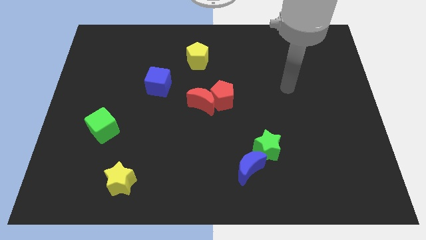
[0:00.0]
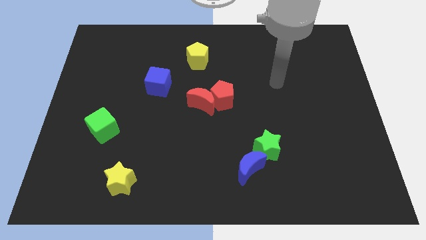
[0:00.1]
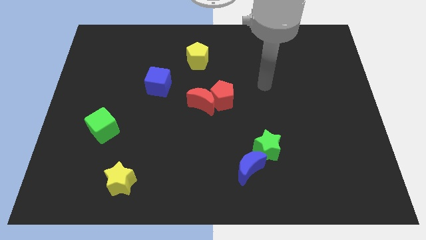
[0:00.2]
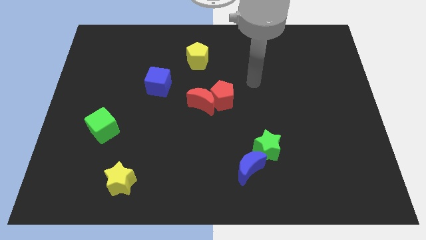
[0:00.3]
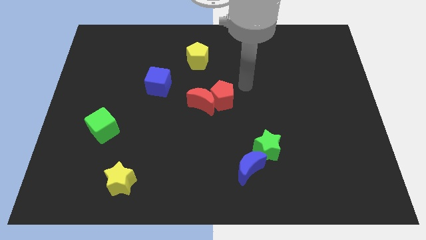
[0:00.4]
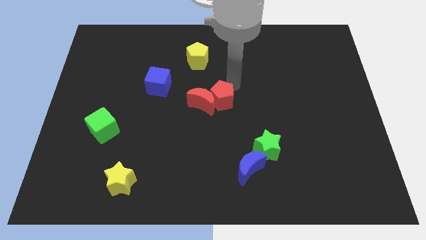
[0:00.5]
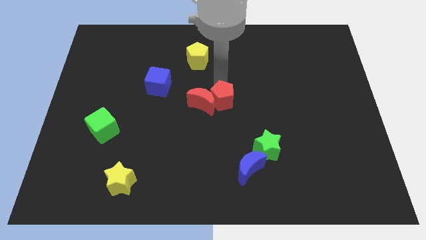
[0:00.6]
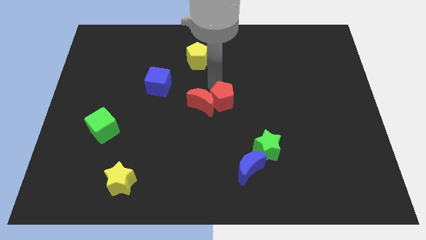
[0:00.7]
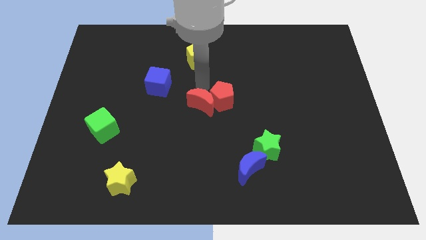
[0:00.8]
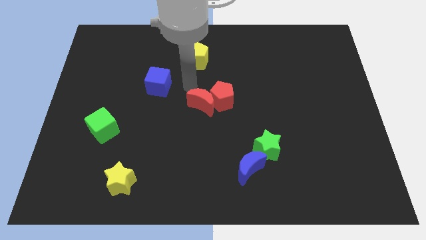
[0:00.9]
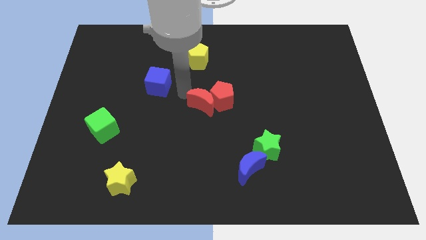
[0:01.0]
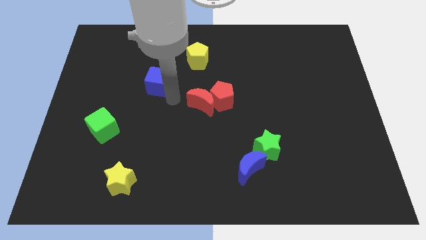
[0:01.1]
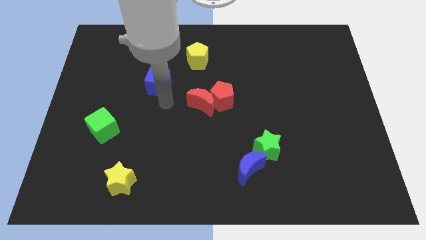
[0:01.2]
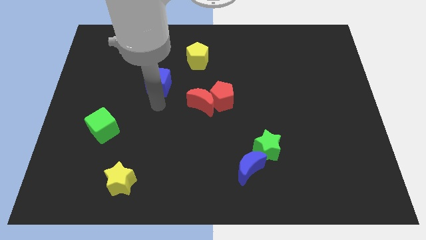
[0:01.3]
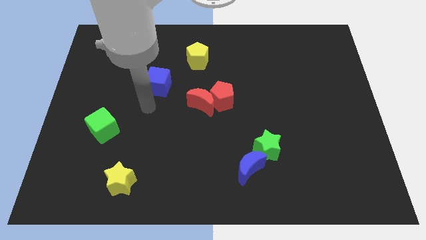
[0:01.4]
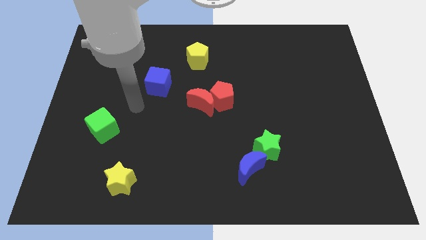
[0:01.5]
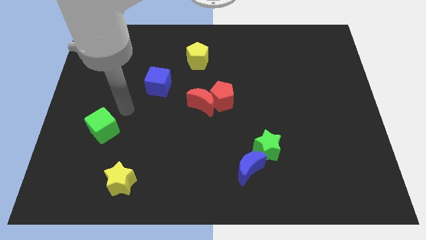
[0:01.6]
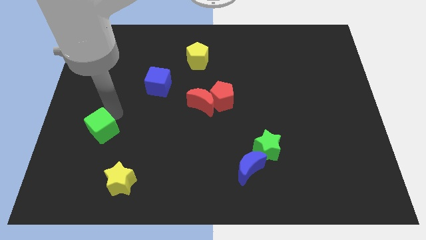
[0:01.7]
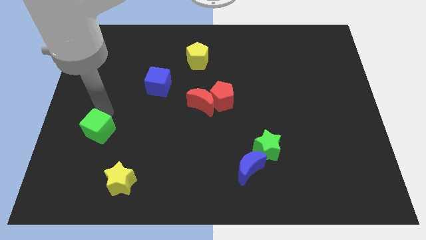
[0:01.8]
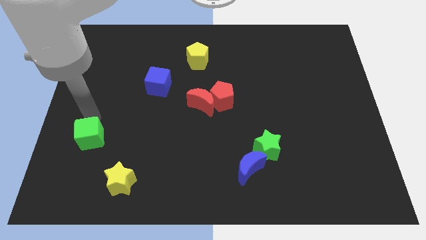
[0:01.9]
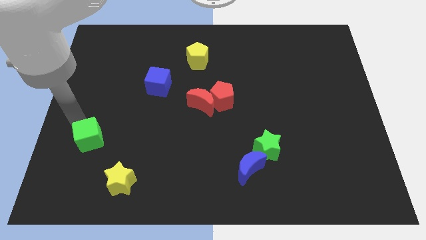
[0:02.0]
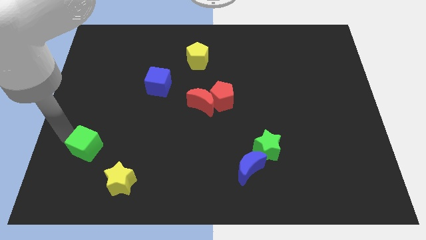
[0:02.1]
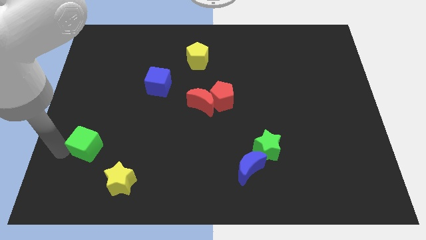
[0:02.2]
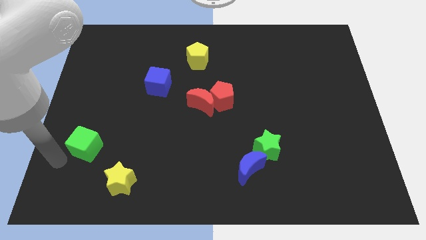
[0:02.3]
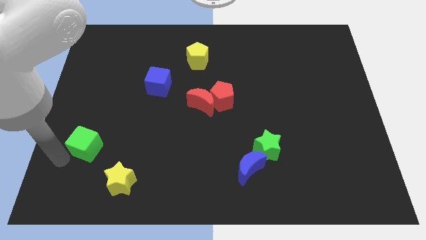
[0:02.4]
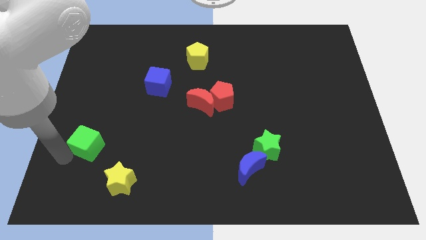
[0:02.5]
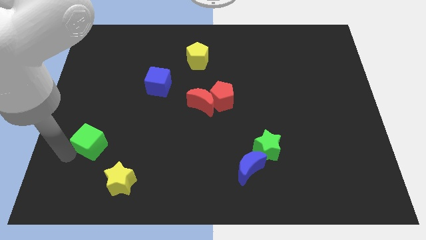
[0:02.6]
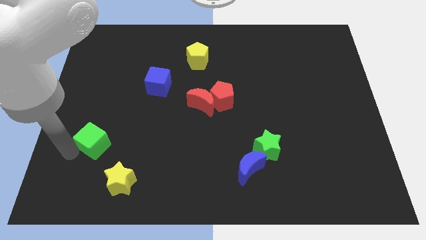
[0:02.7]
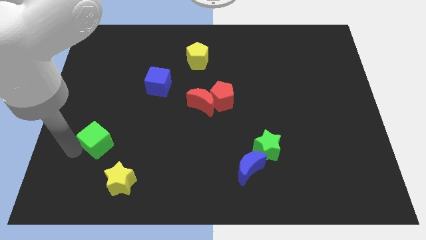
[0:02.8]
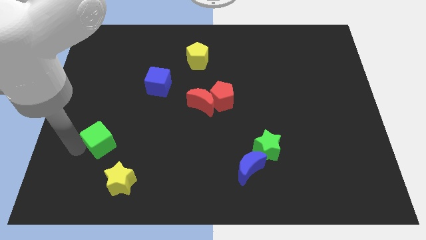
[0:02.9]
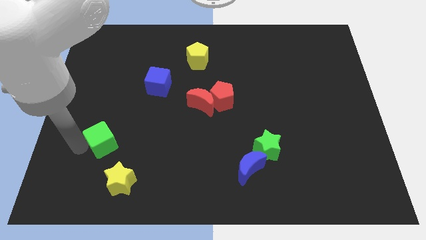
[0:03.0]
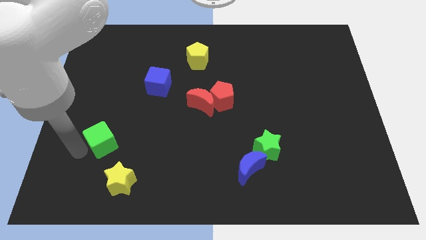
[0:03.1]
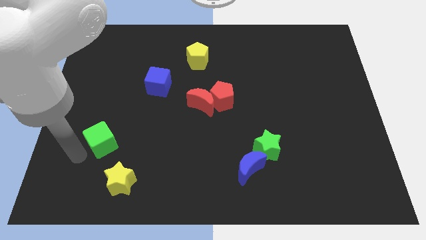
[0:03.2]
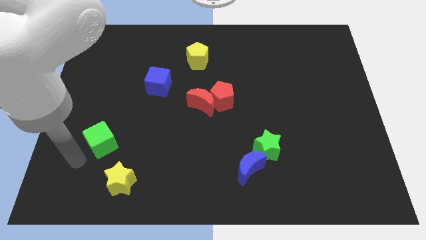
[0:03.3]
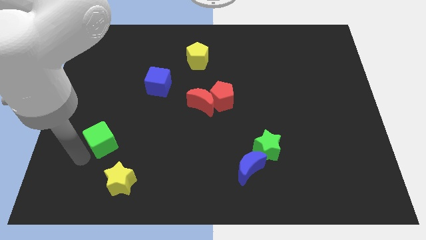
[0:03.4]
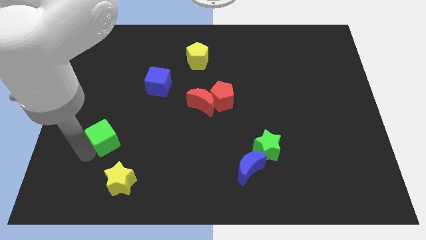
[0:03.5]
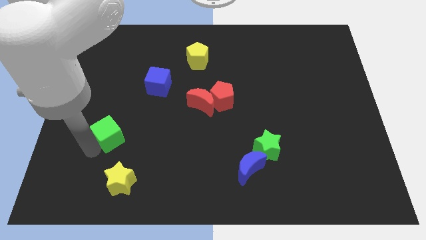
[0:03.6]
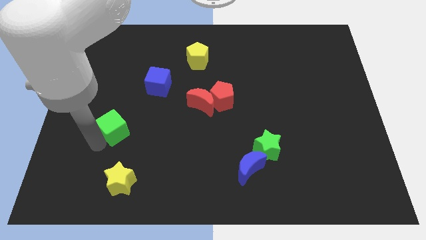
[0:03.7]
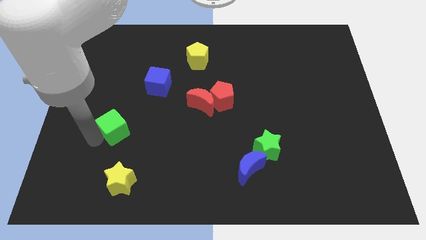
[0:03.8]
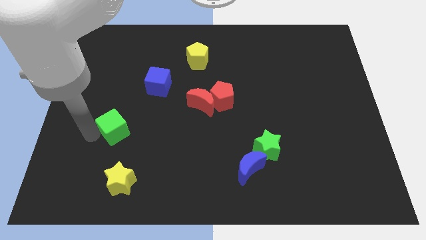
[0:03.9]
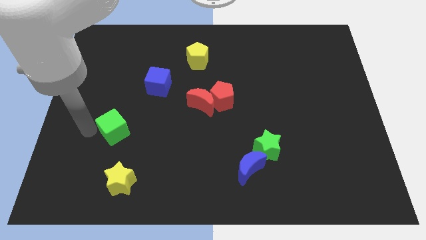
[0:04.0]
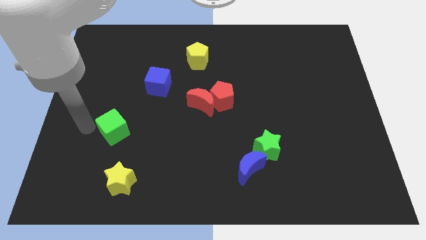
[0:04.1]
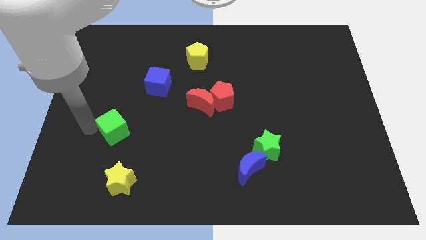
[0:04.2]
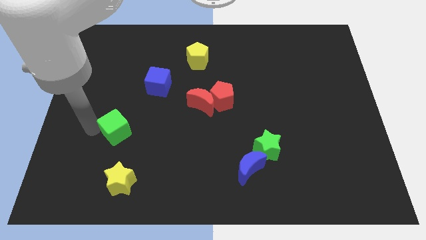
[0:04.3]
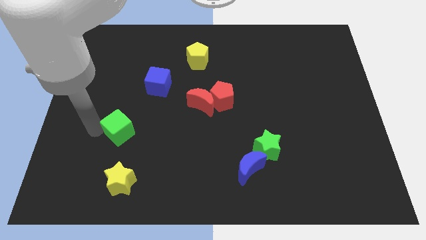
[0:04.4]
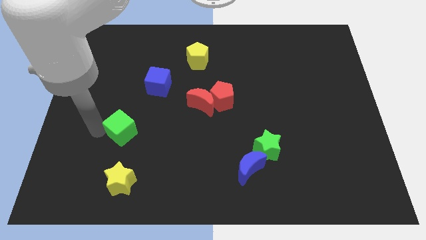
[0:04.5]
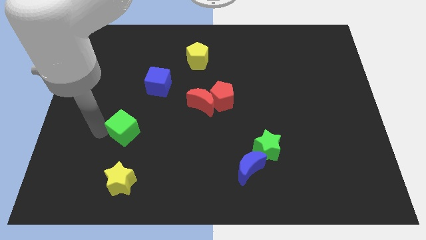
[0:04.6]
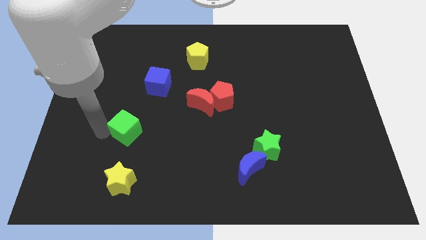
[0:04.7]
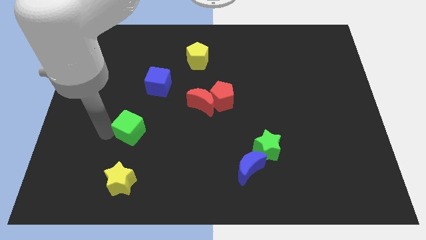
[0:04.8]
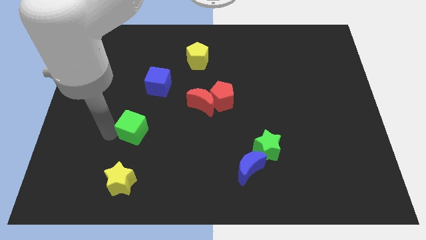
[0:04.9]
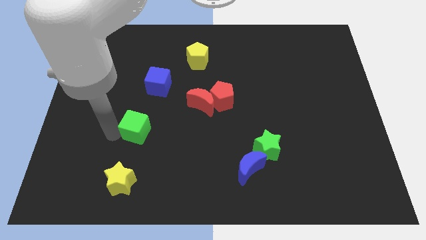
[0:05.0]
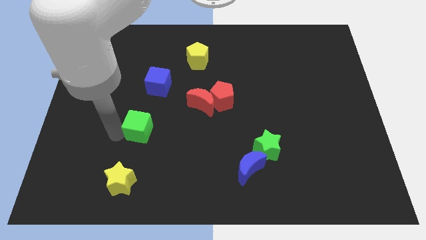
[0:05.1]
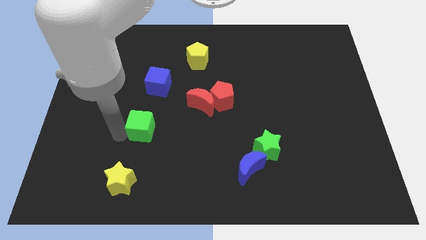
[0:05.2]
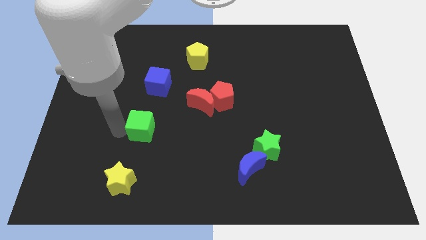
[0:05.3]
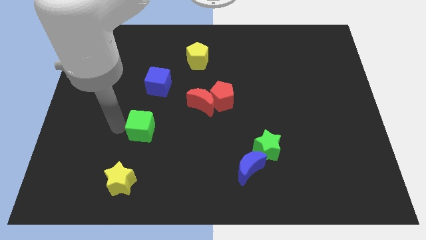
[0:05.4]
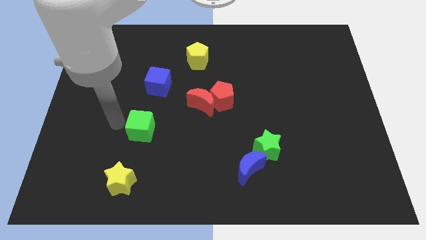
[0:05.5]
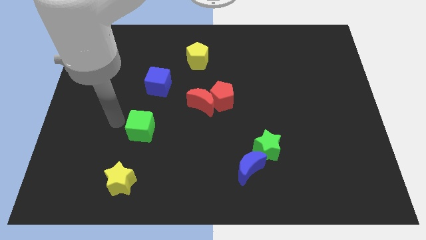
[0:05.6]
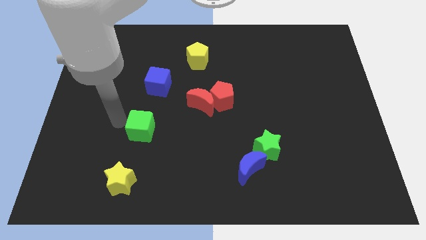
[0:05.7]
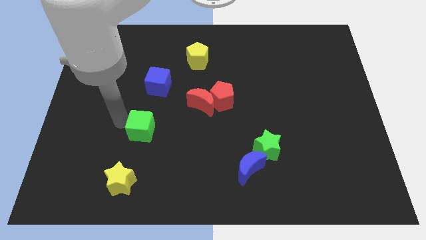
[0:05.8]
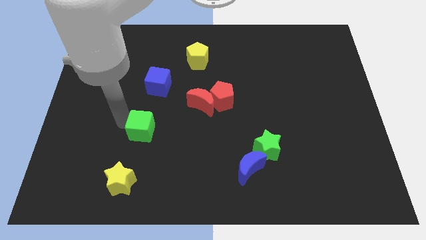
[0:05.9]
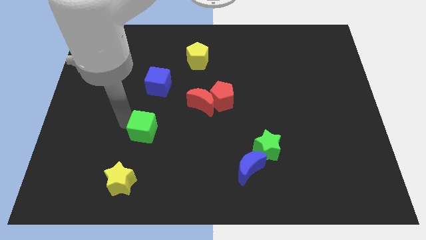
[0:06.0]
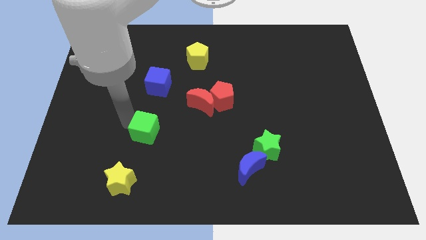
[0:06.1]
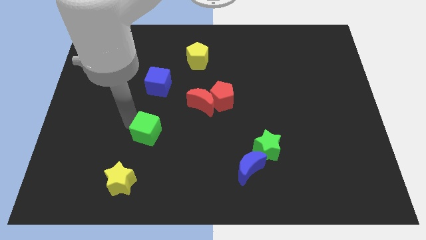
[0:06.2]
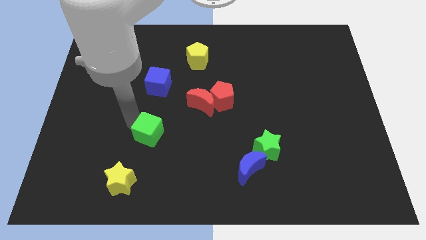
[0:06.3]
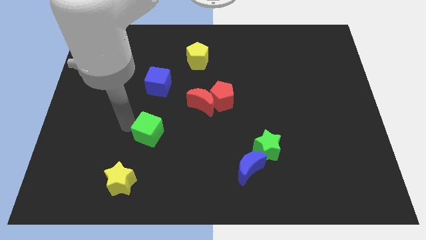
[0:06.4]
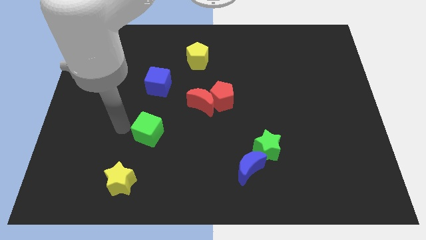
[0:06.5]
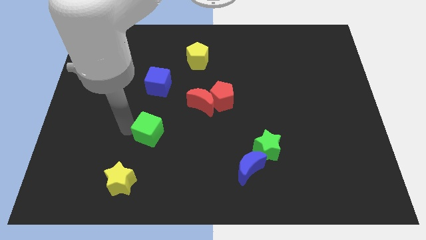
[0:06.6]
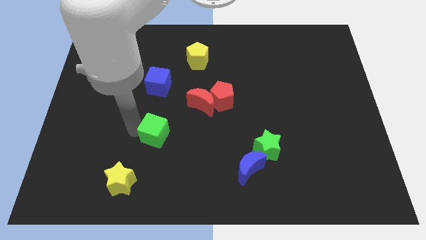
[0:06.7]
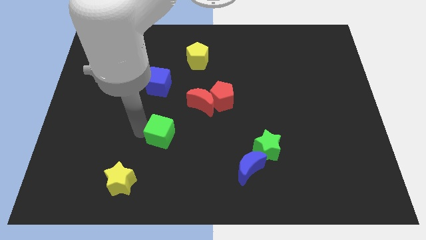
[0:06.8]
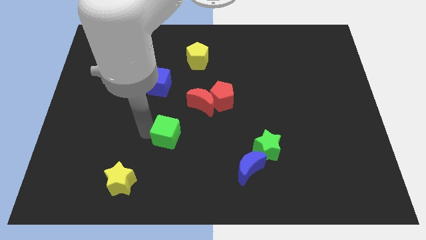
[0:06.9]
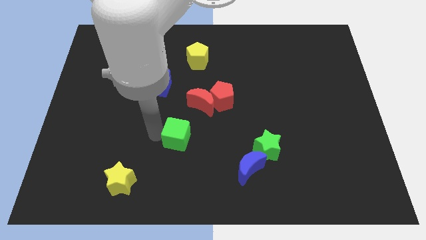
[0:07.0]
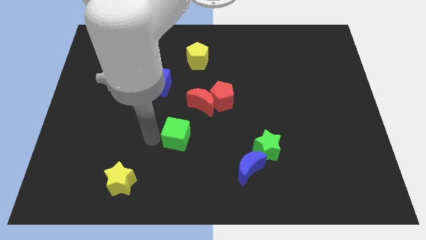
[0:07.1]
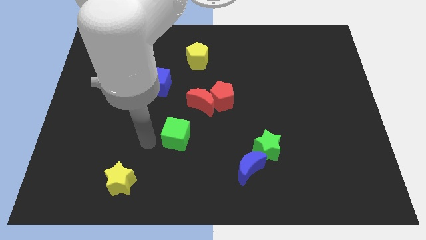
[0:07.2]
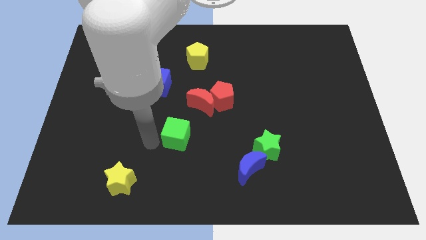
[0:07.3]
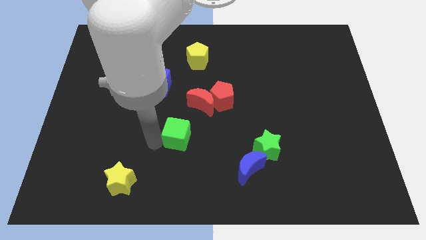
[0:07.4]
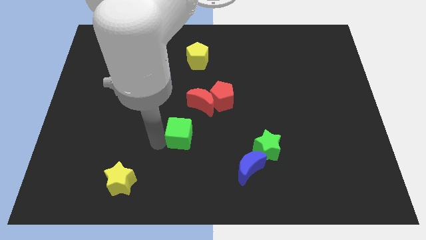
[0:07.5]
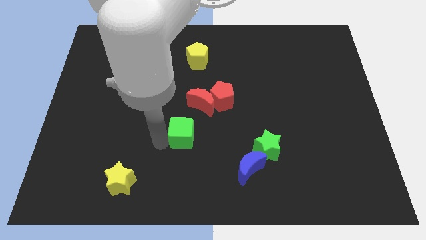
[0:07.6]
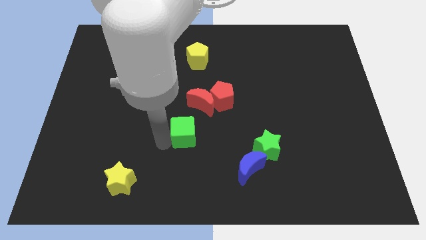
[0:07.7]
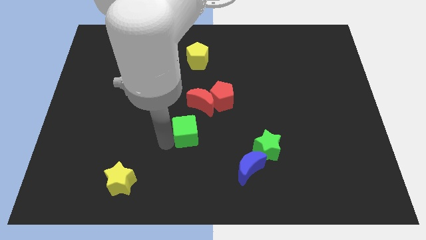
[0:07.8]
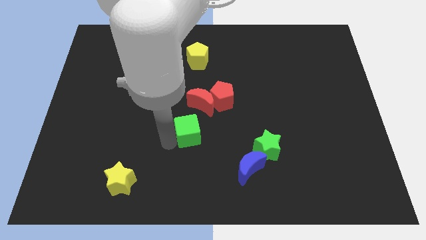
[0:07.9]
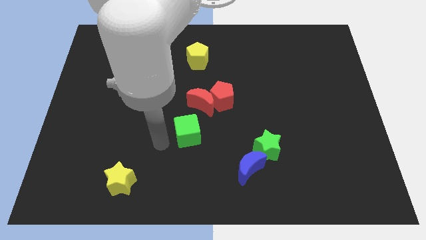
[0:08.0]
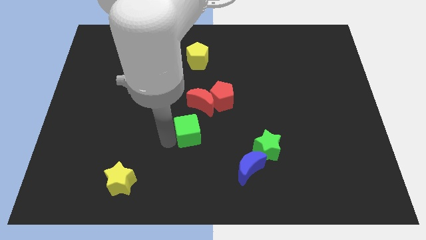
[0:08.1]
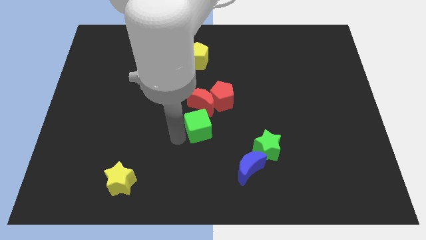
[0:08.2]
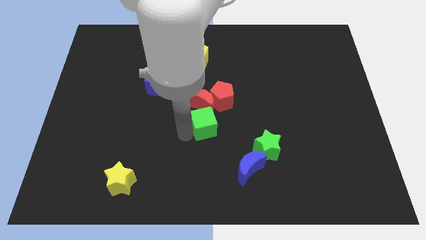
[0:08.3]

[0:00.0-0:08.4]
slide the green cube diagonally down and to the right of the red moon
